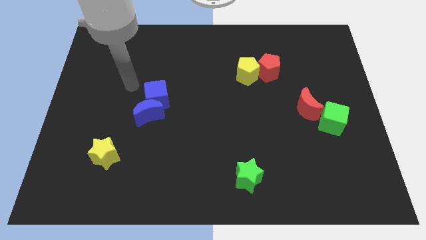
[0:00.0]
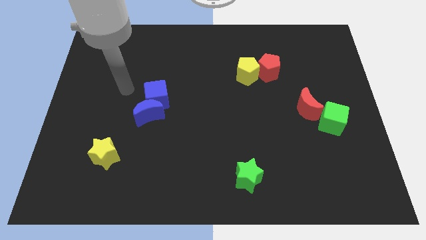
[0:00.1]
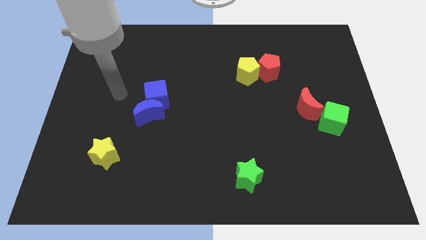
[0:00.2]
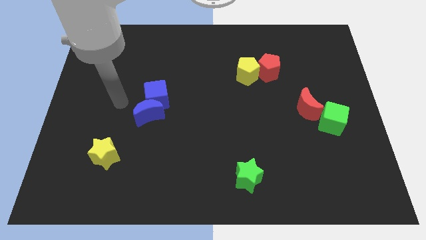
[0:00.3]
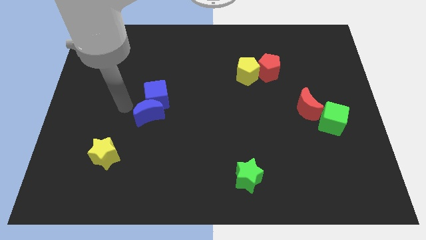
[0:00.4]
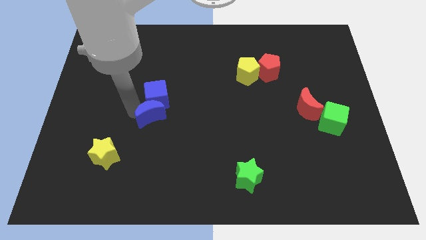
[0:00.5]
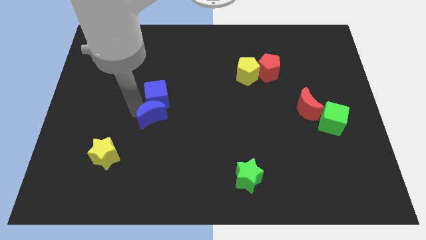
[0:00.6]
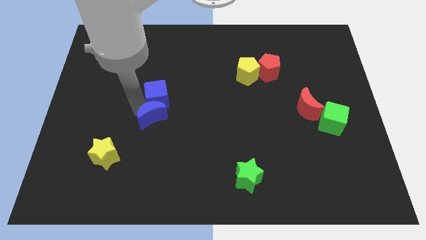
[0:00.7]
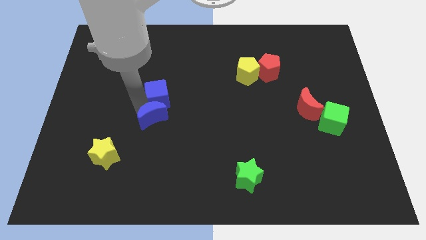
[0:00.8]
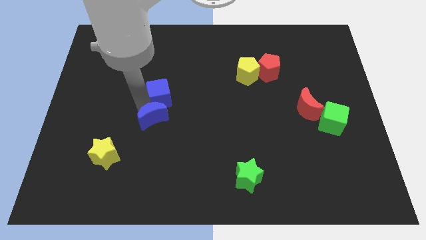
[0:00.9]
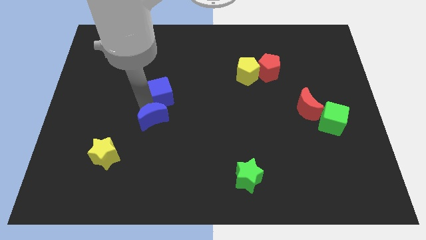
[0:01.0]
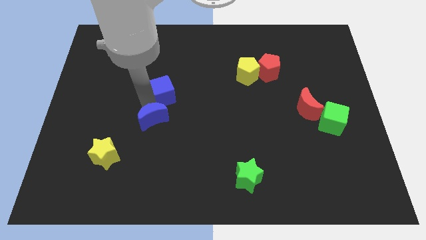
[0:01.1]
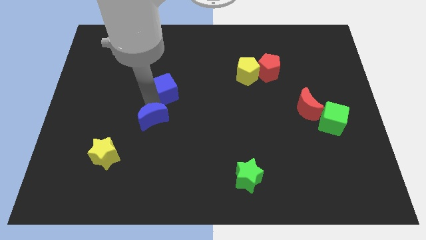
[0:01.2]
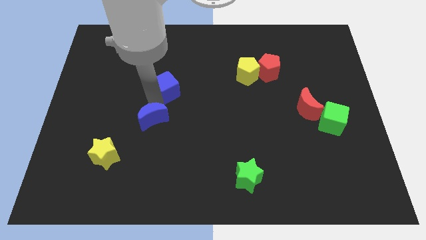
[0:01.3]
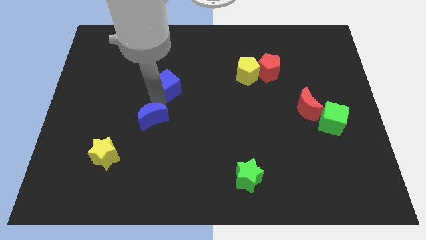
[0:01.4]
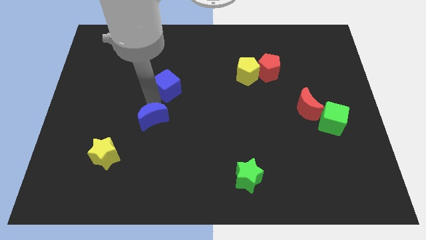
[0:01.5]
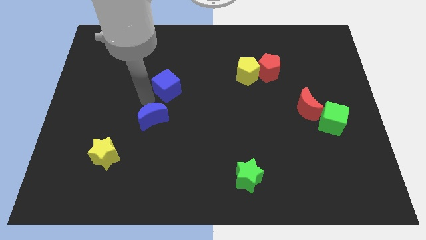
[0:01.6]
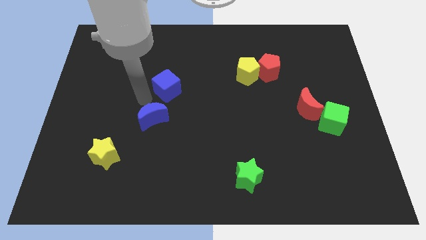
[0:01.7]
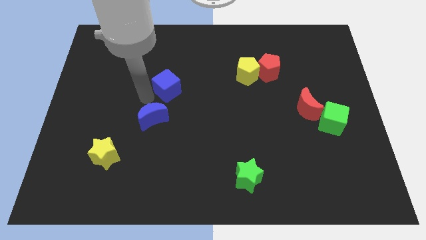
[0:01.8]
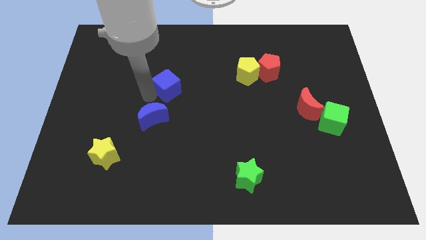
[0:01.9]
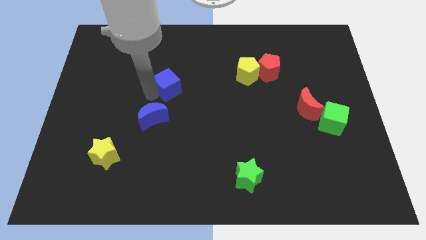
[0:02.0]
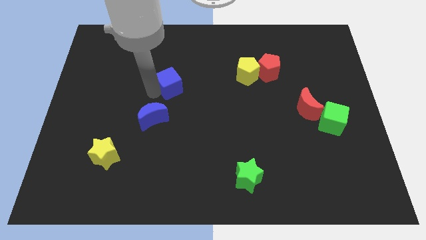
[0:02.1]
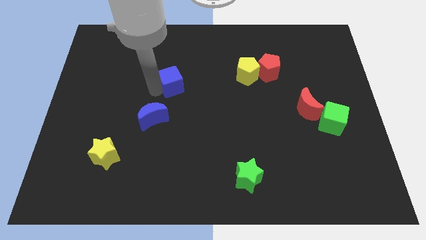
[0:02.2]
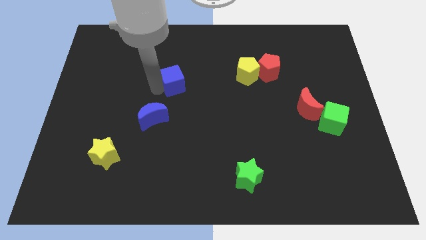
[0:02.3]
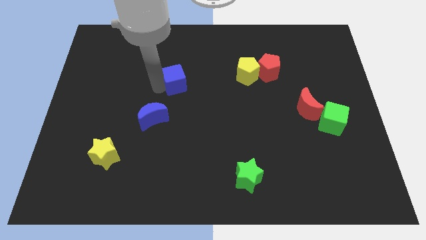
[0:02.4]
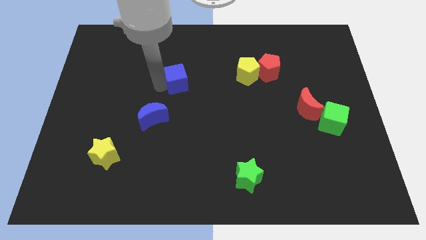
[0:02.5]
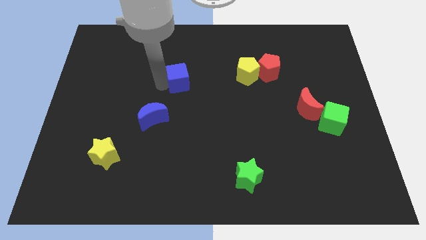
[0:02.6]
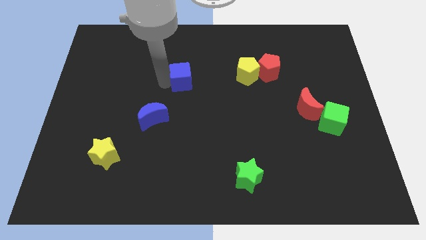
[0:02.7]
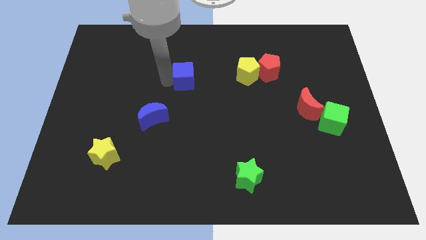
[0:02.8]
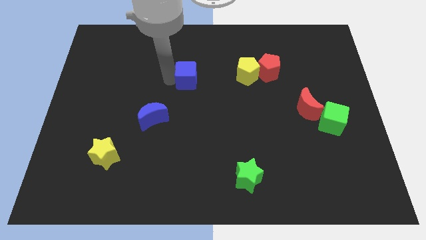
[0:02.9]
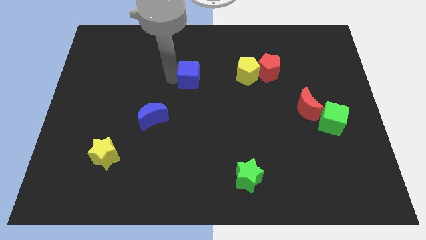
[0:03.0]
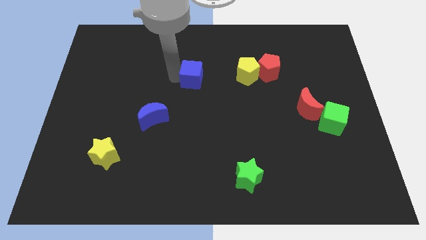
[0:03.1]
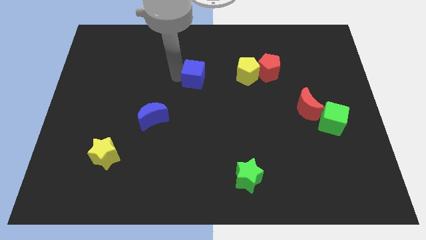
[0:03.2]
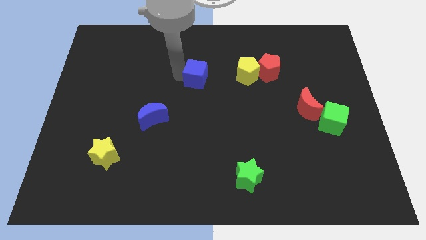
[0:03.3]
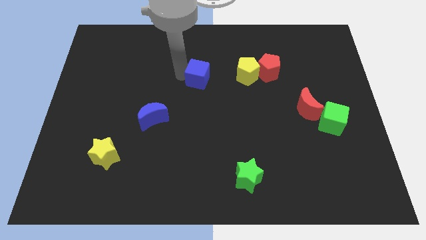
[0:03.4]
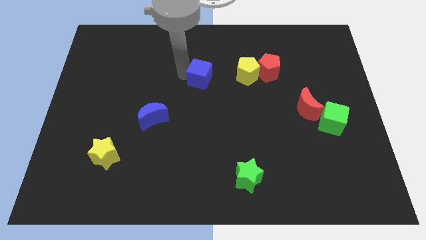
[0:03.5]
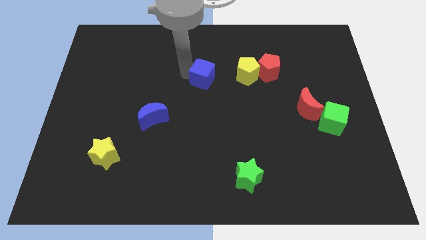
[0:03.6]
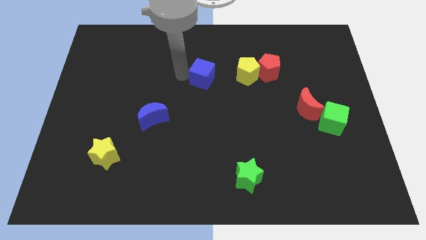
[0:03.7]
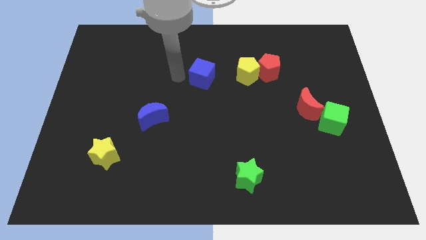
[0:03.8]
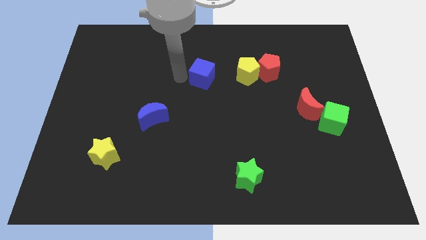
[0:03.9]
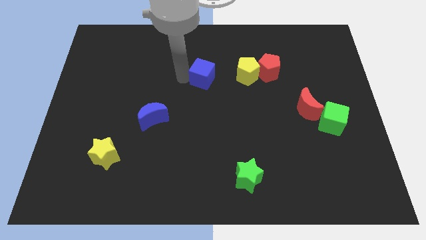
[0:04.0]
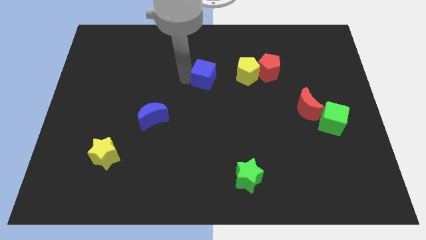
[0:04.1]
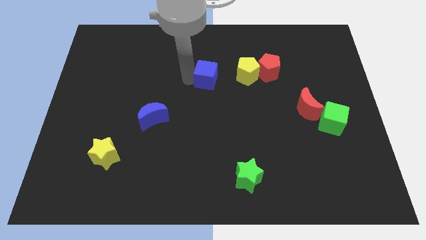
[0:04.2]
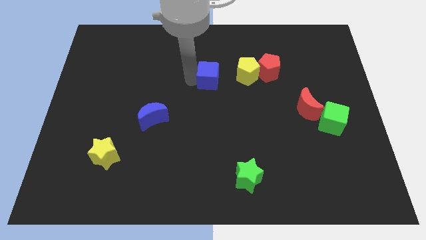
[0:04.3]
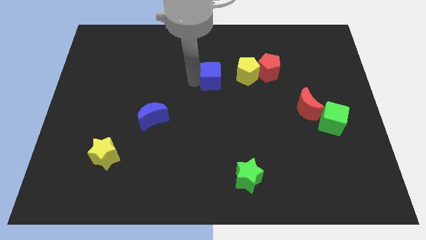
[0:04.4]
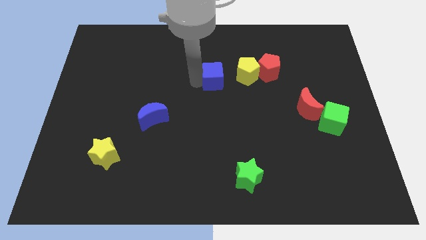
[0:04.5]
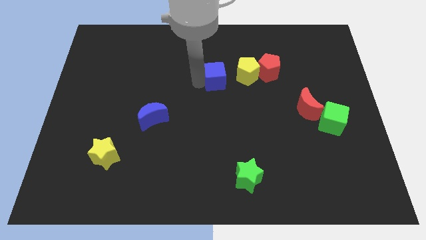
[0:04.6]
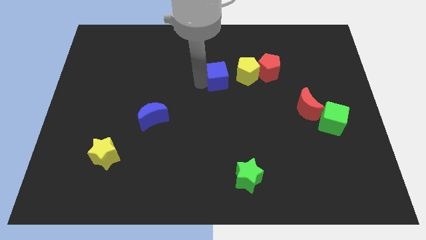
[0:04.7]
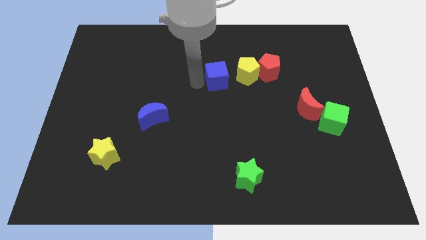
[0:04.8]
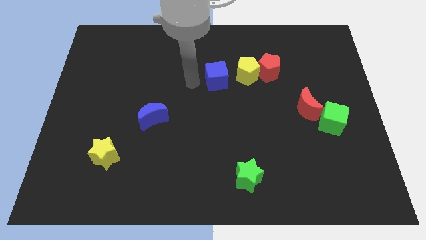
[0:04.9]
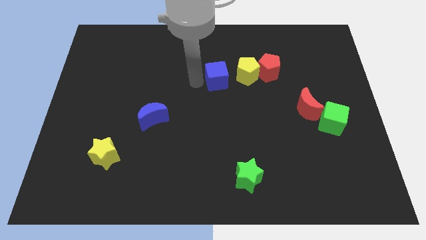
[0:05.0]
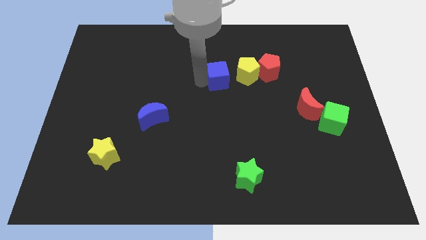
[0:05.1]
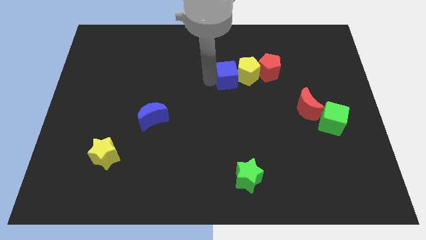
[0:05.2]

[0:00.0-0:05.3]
put the blue cube next to the yellow pentagon

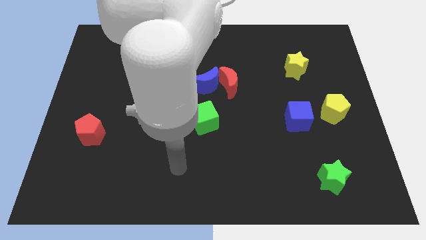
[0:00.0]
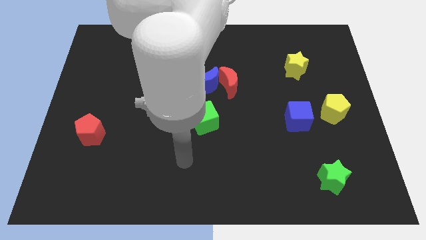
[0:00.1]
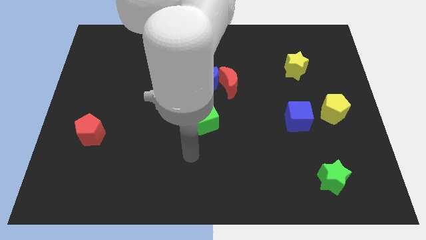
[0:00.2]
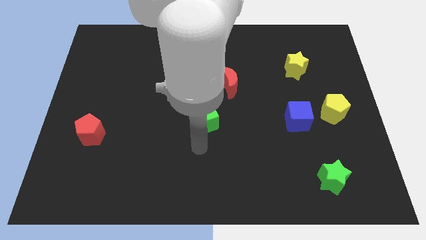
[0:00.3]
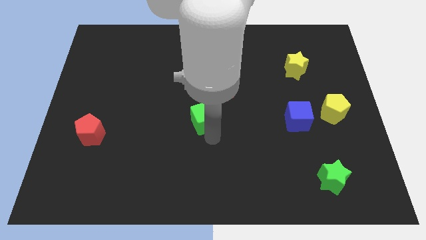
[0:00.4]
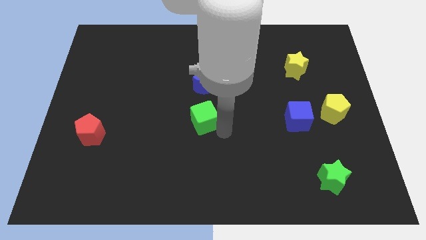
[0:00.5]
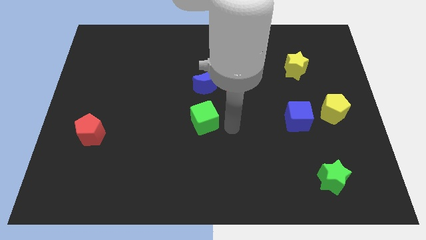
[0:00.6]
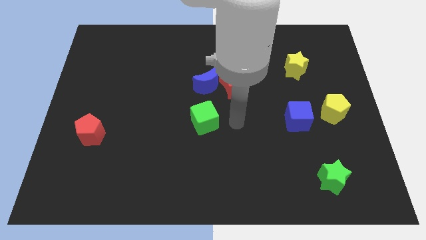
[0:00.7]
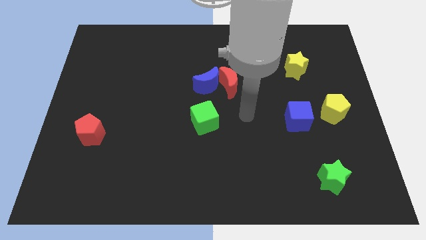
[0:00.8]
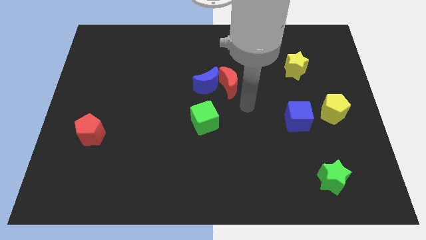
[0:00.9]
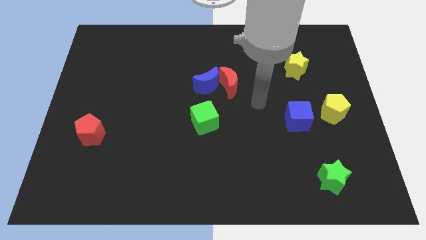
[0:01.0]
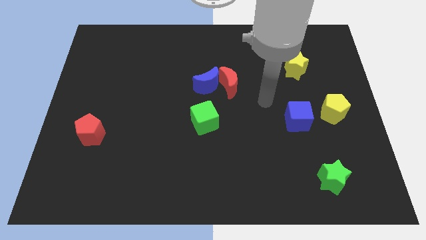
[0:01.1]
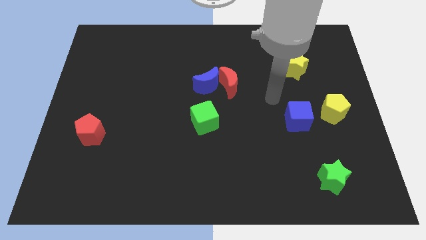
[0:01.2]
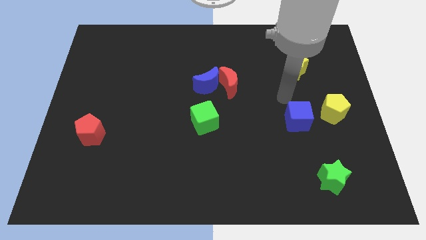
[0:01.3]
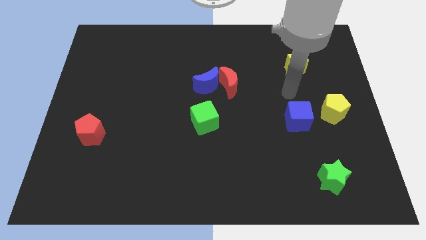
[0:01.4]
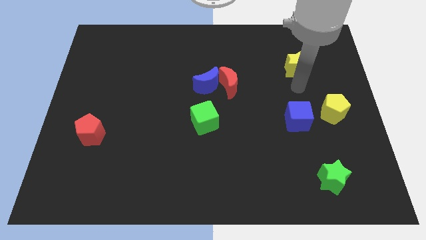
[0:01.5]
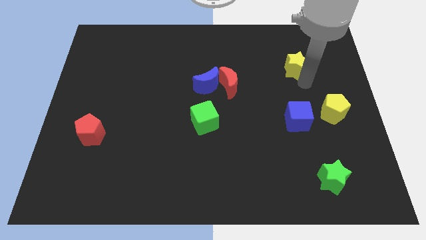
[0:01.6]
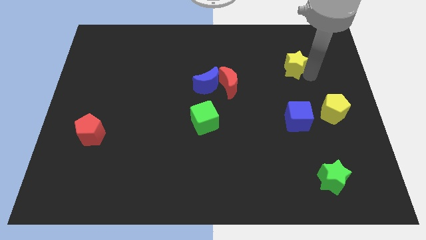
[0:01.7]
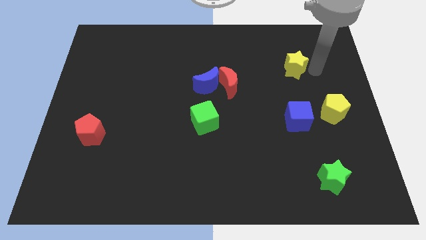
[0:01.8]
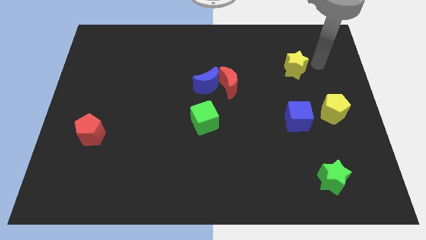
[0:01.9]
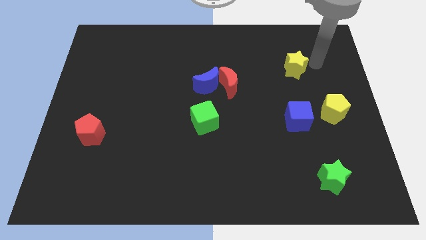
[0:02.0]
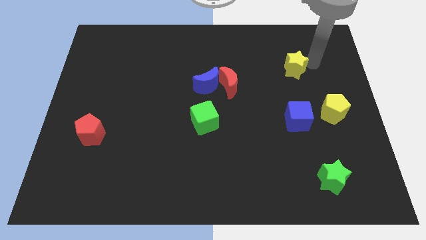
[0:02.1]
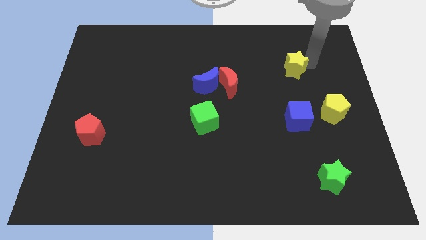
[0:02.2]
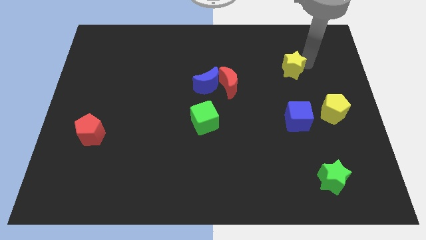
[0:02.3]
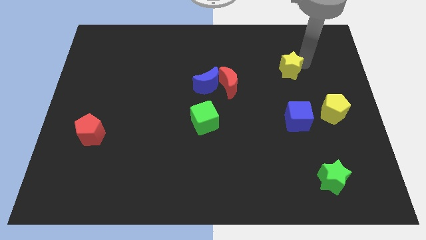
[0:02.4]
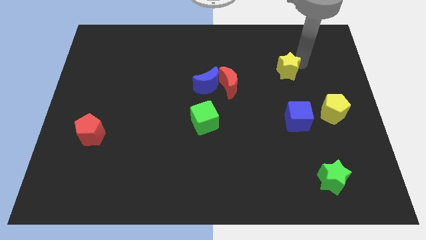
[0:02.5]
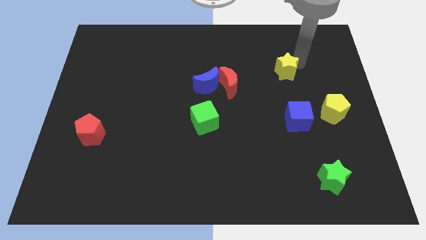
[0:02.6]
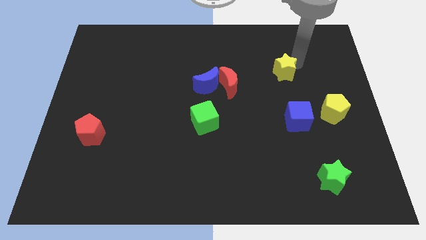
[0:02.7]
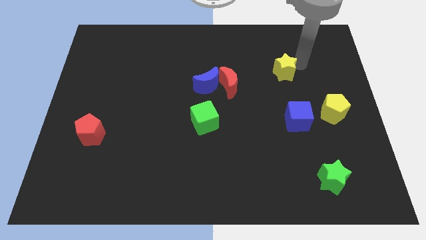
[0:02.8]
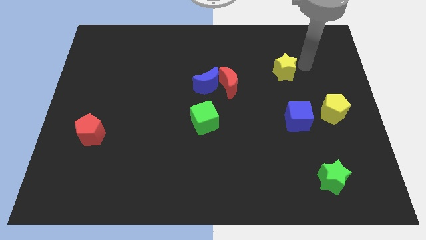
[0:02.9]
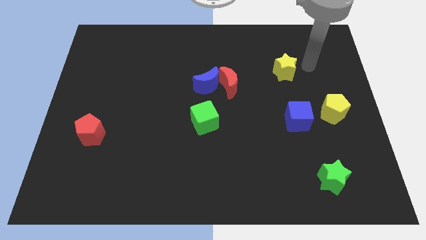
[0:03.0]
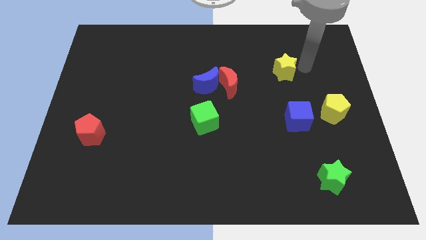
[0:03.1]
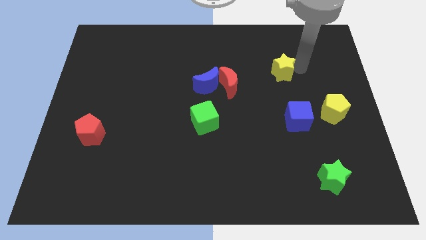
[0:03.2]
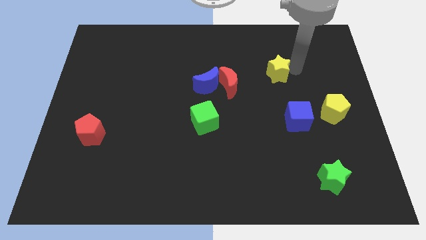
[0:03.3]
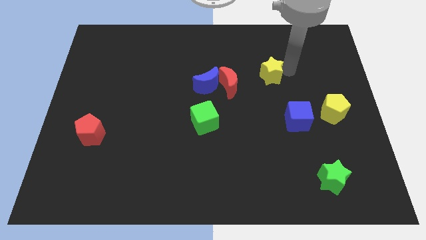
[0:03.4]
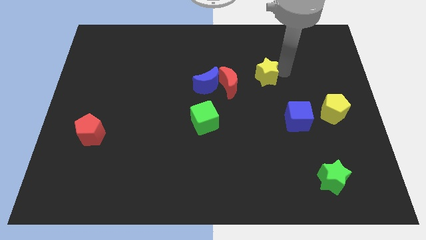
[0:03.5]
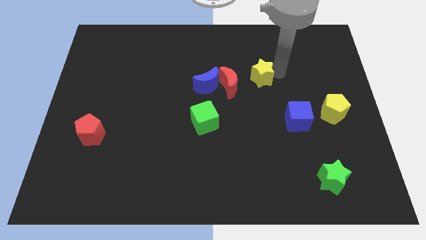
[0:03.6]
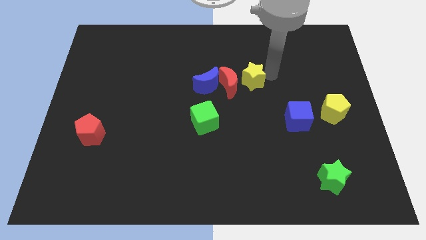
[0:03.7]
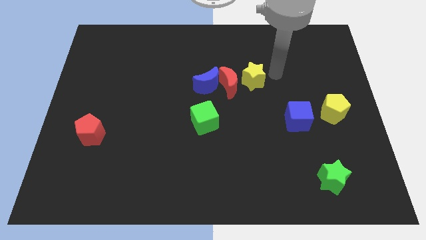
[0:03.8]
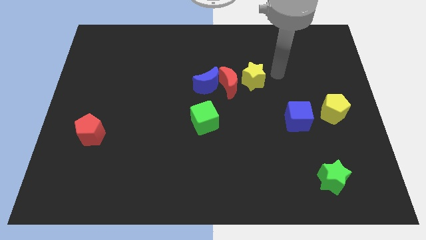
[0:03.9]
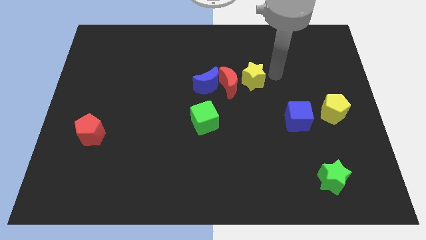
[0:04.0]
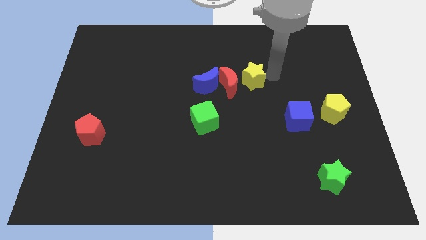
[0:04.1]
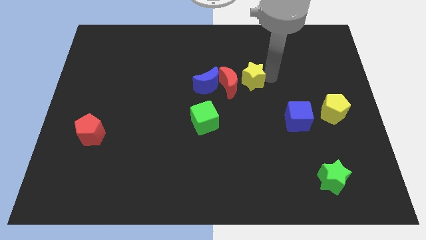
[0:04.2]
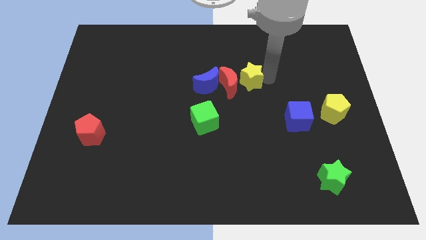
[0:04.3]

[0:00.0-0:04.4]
move the yellow star towards the red moon
